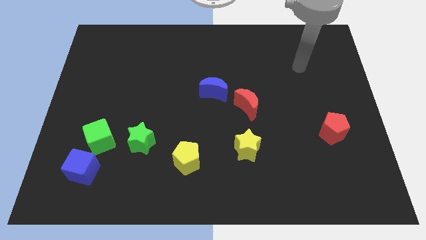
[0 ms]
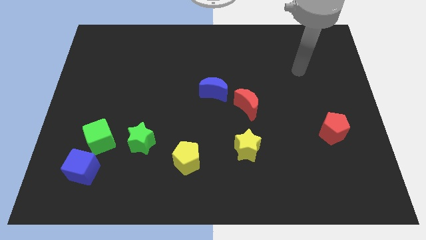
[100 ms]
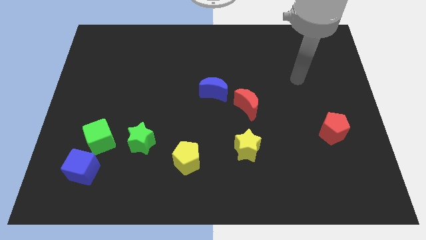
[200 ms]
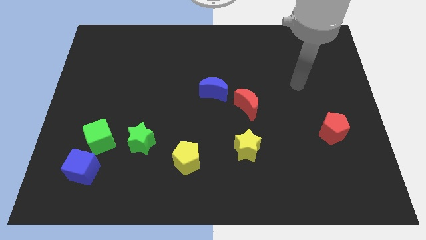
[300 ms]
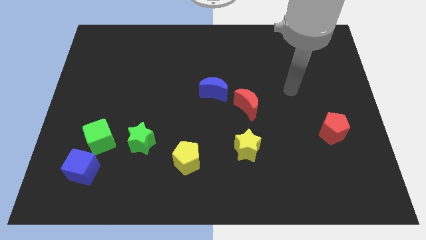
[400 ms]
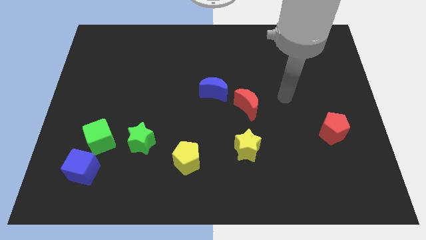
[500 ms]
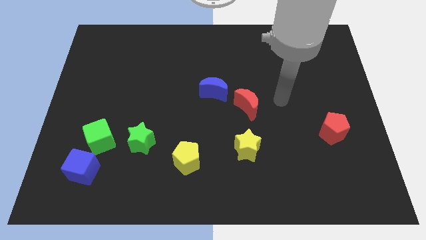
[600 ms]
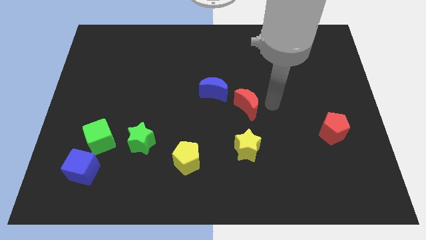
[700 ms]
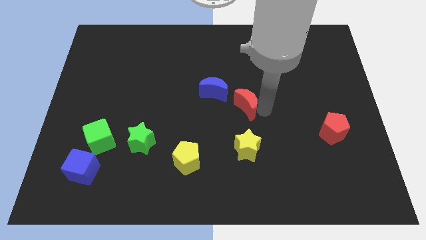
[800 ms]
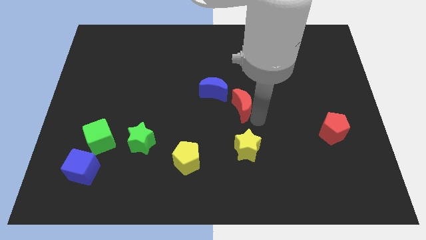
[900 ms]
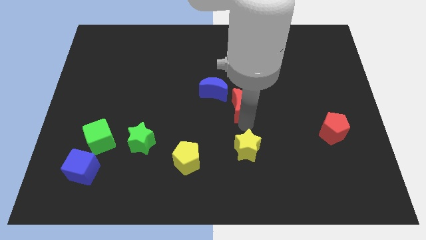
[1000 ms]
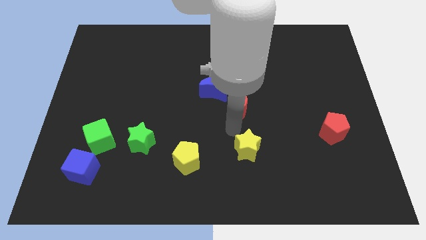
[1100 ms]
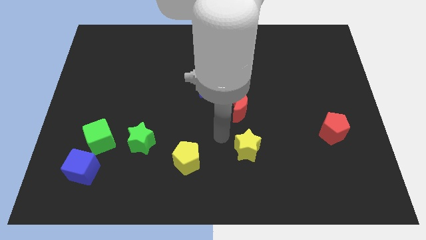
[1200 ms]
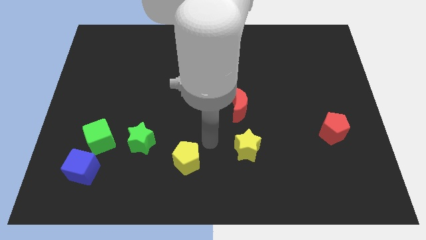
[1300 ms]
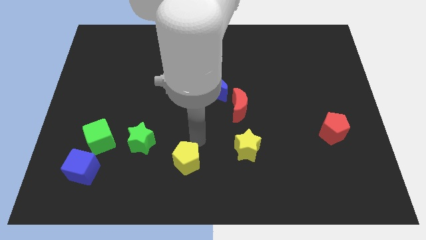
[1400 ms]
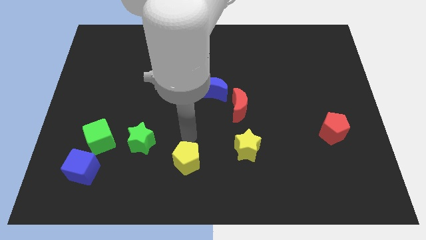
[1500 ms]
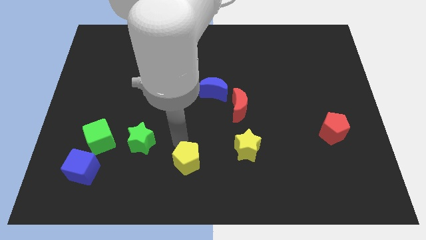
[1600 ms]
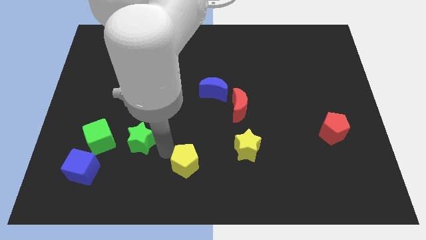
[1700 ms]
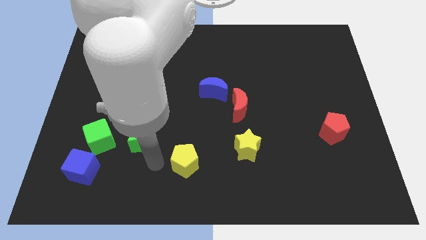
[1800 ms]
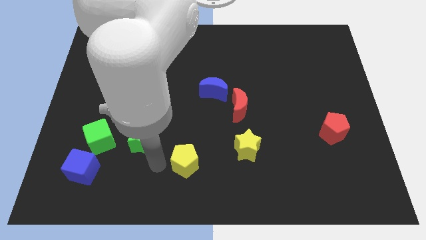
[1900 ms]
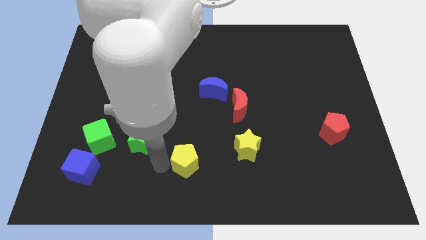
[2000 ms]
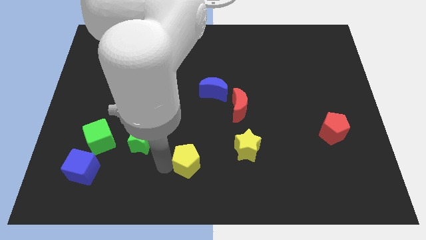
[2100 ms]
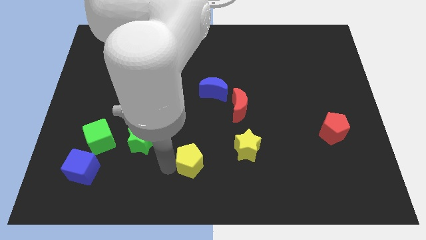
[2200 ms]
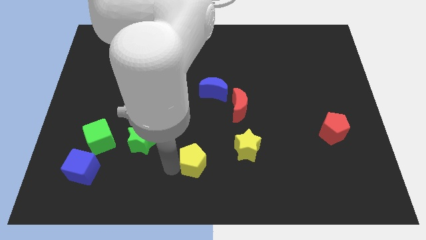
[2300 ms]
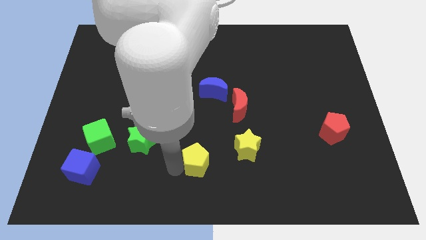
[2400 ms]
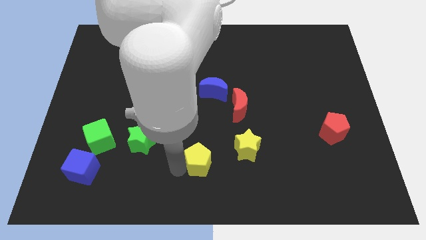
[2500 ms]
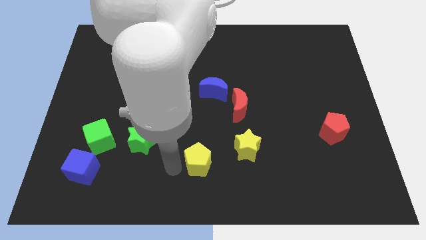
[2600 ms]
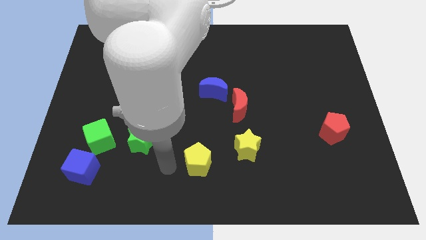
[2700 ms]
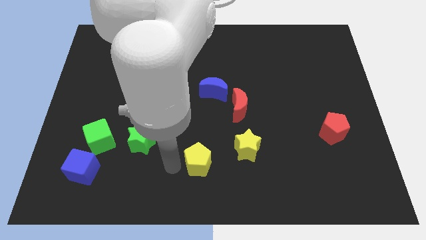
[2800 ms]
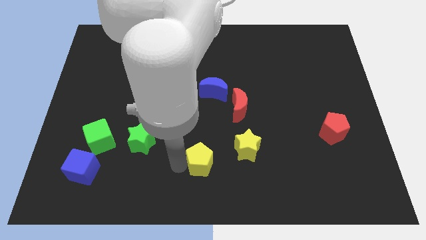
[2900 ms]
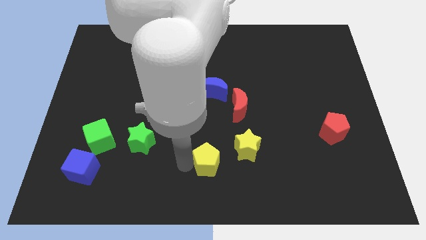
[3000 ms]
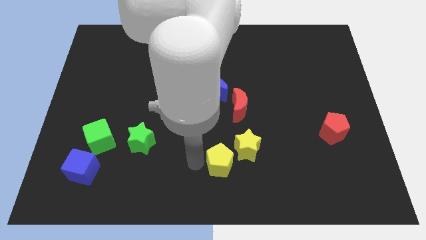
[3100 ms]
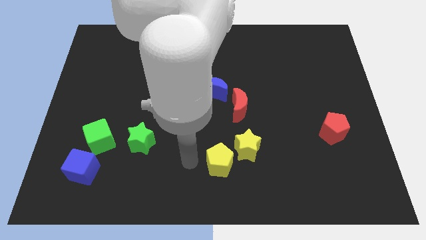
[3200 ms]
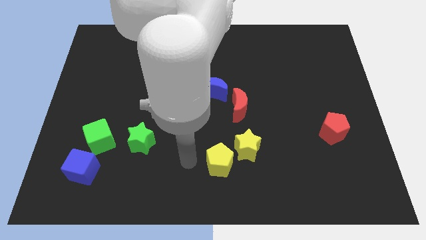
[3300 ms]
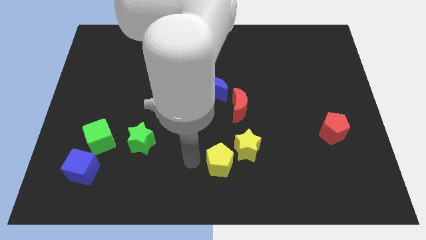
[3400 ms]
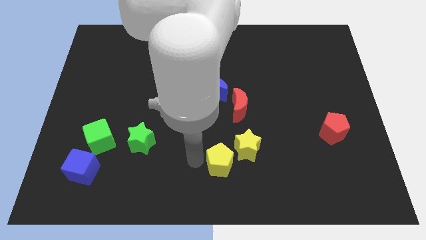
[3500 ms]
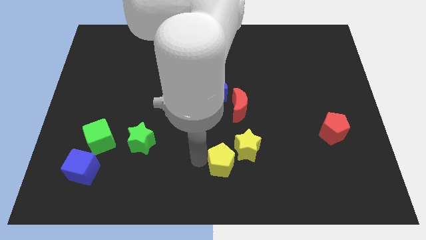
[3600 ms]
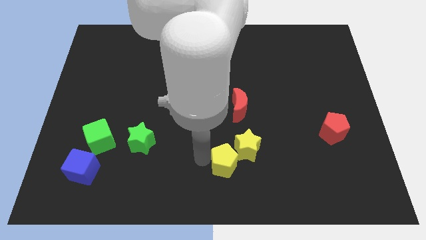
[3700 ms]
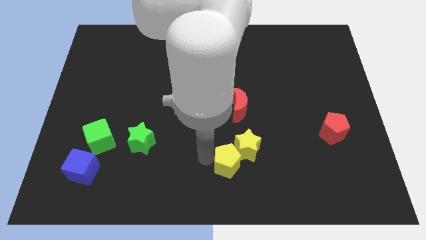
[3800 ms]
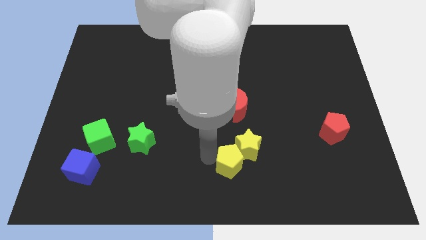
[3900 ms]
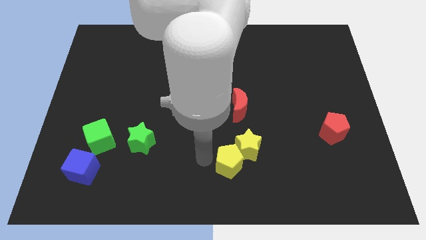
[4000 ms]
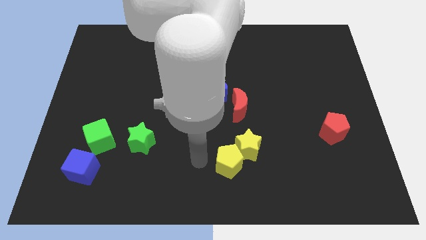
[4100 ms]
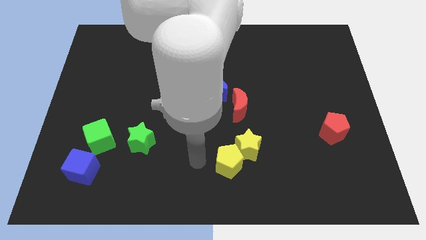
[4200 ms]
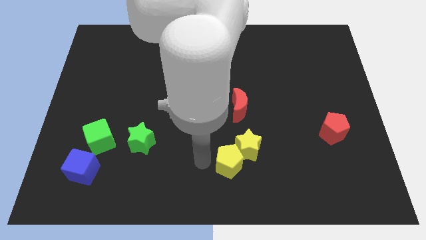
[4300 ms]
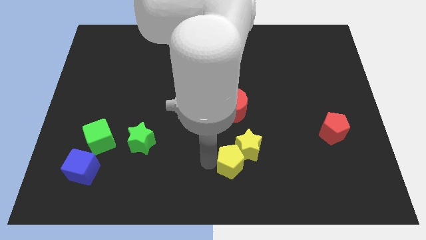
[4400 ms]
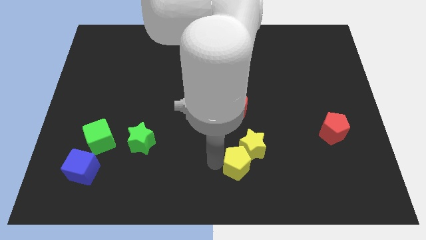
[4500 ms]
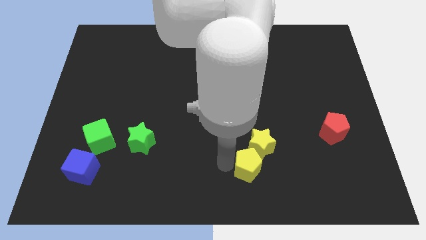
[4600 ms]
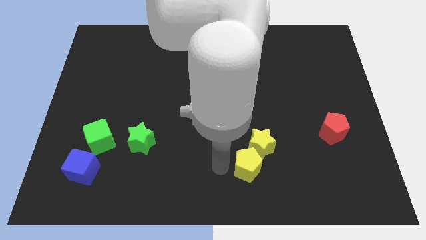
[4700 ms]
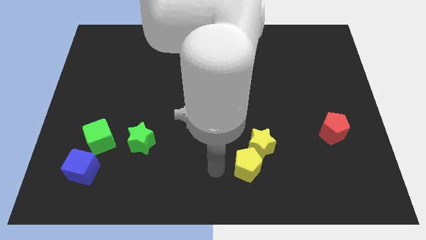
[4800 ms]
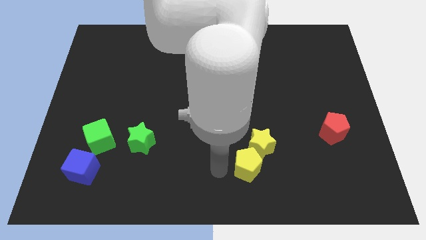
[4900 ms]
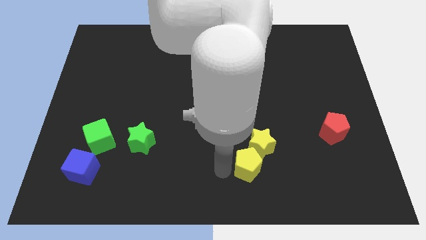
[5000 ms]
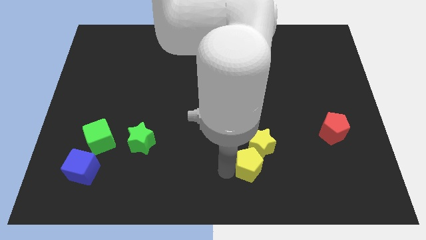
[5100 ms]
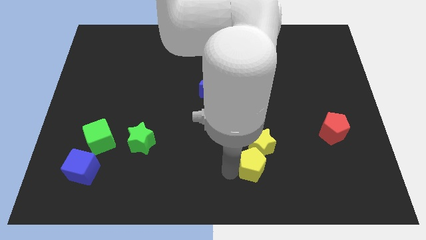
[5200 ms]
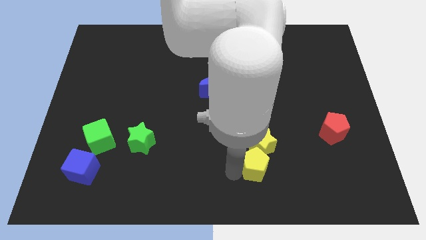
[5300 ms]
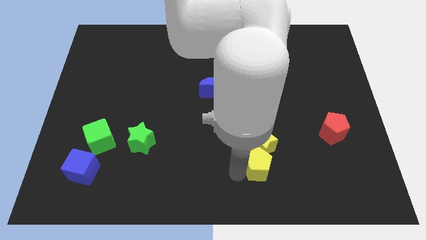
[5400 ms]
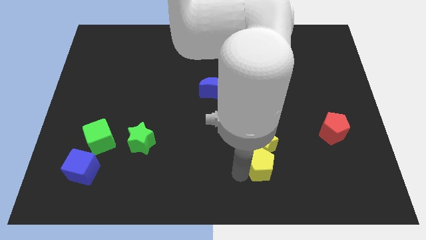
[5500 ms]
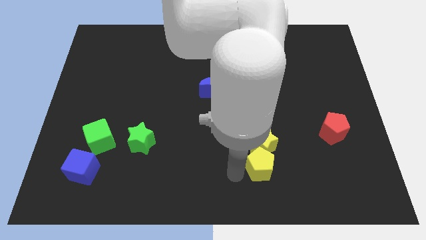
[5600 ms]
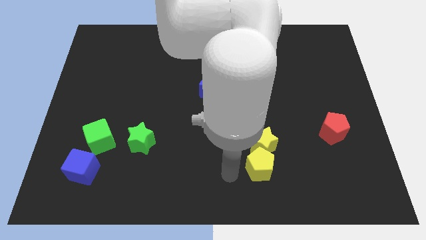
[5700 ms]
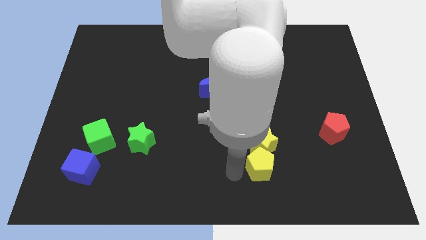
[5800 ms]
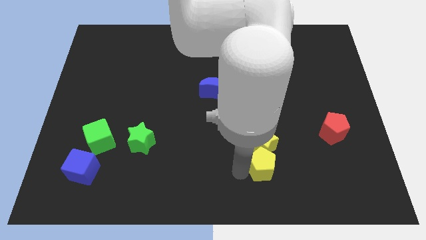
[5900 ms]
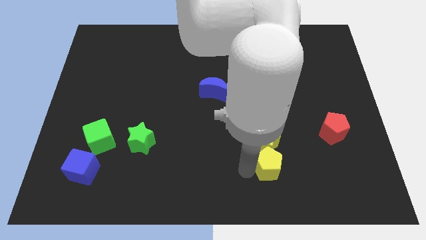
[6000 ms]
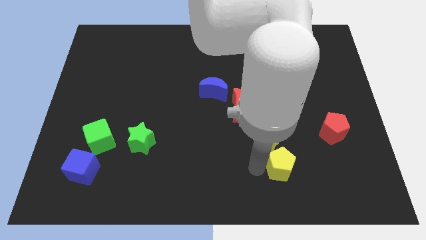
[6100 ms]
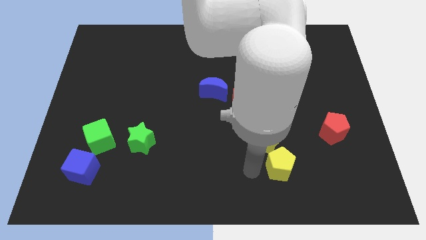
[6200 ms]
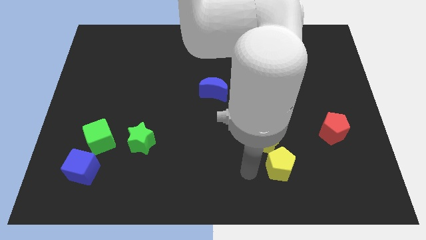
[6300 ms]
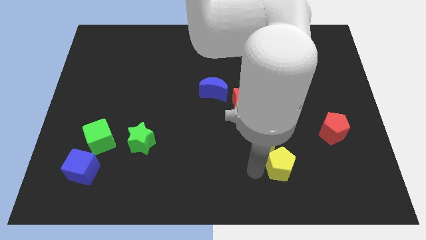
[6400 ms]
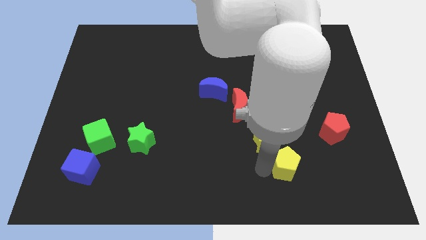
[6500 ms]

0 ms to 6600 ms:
push the yellow pentagon right

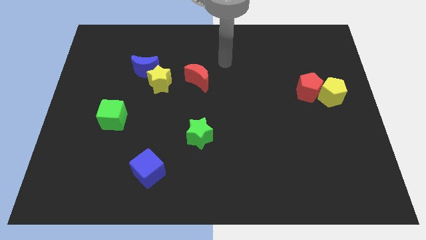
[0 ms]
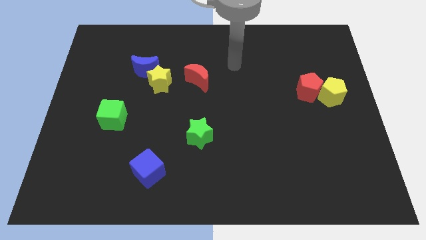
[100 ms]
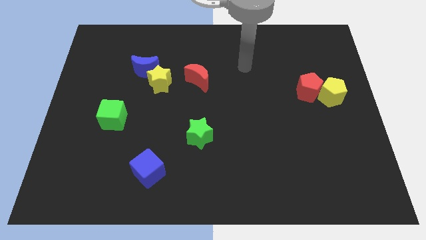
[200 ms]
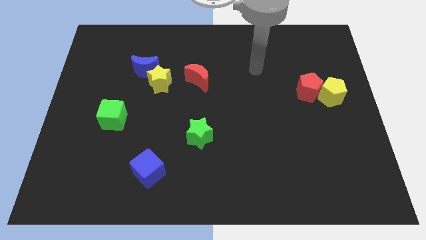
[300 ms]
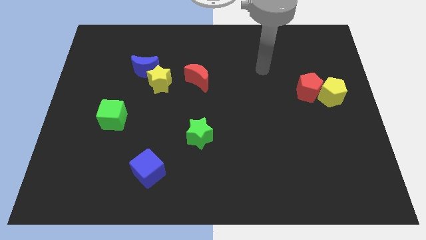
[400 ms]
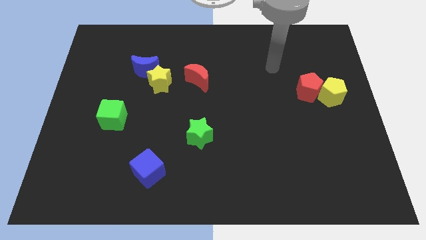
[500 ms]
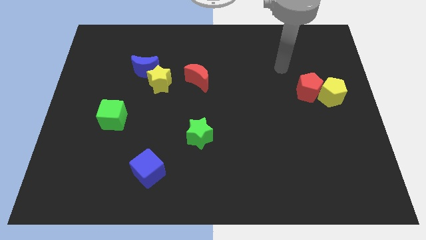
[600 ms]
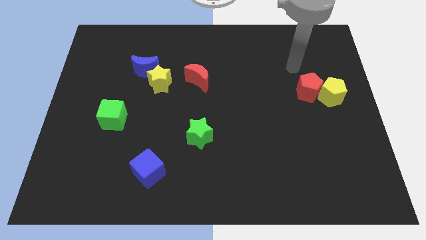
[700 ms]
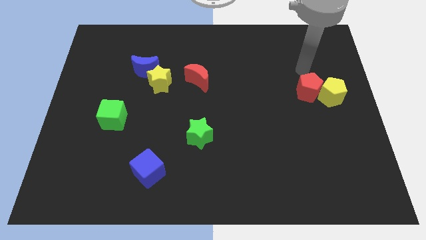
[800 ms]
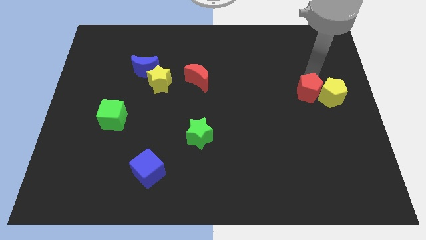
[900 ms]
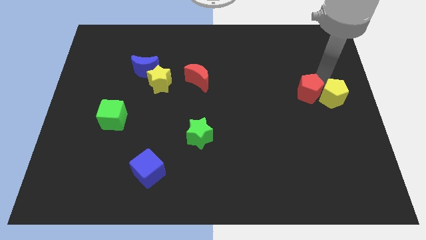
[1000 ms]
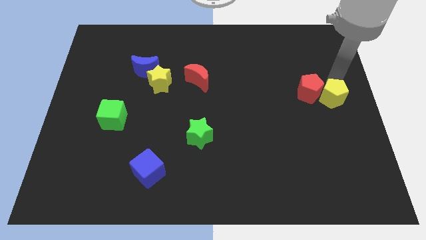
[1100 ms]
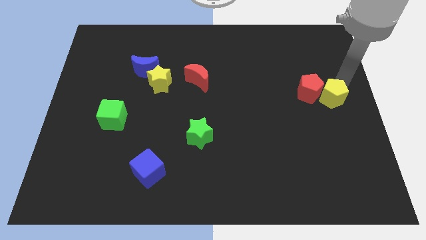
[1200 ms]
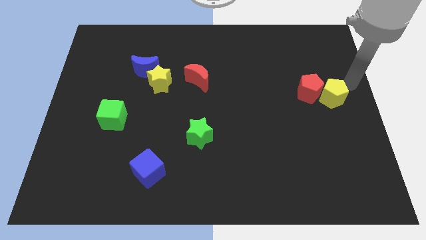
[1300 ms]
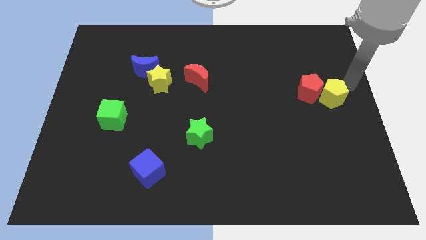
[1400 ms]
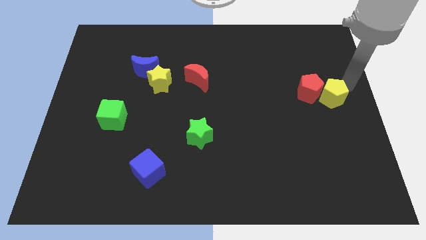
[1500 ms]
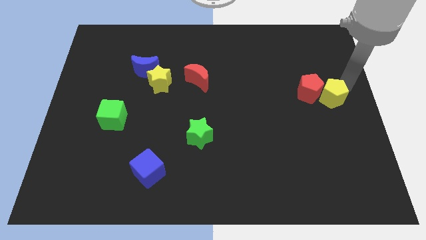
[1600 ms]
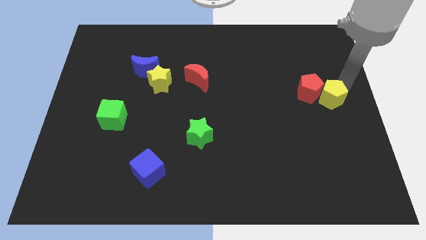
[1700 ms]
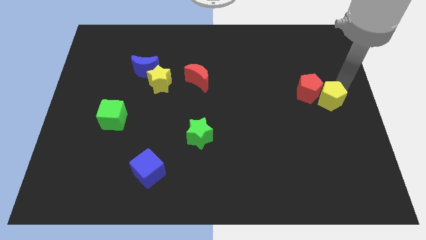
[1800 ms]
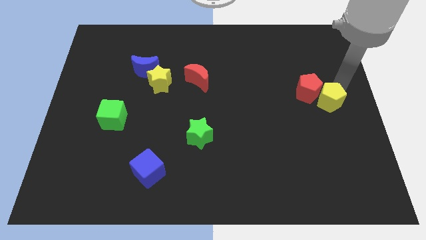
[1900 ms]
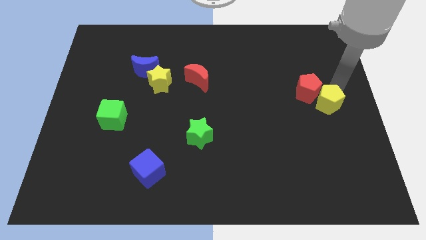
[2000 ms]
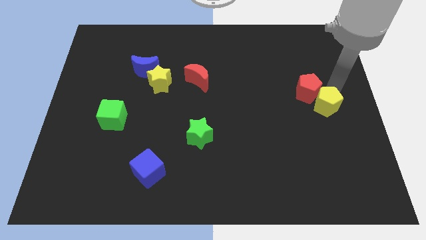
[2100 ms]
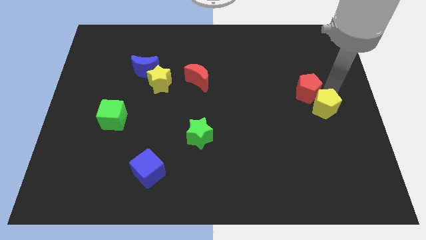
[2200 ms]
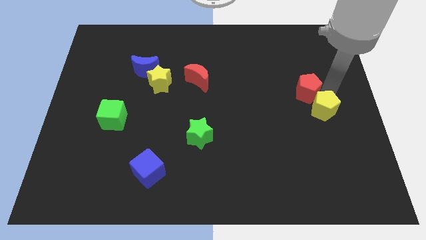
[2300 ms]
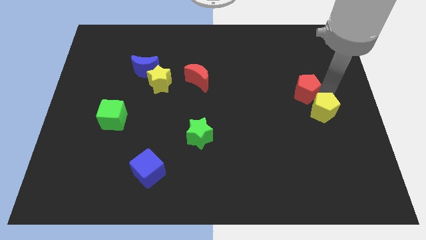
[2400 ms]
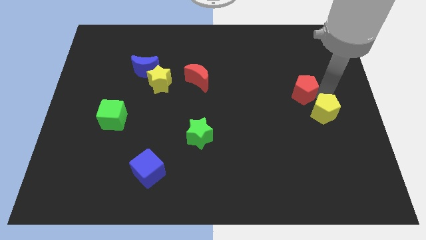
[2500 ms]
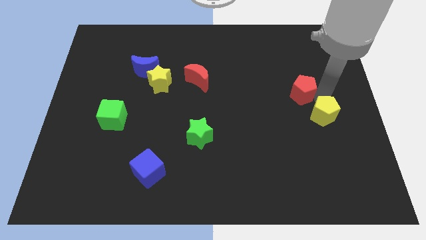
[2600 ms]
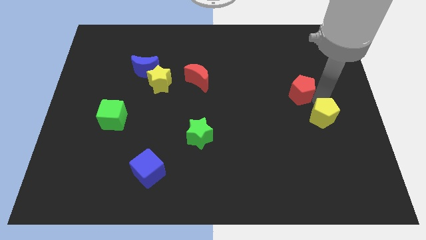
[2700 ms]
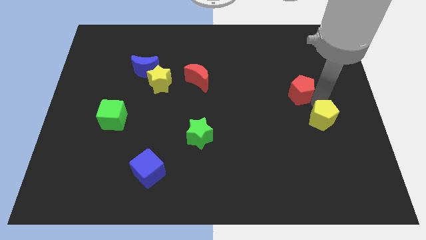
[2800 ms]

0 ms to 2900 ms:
slightly push the yellow pentagon downwards and to the left diagonally
